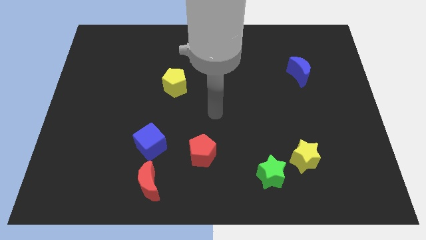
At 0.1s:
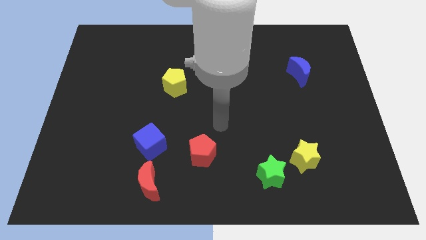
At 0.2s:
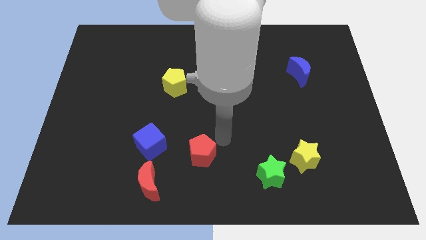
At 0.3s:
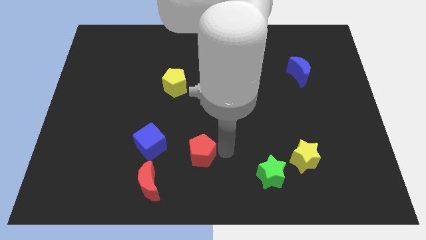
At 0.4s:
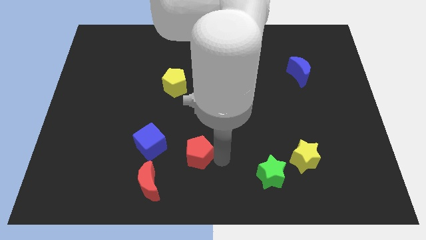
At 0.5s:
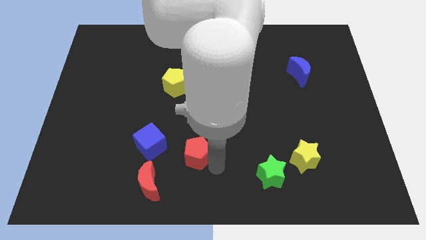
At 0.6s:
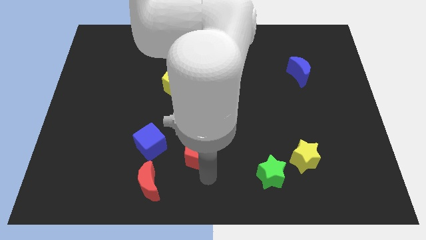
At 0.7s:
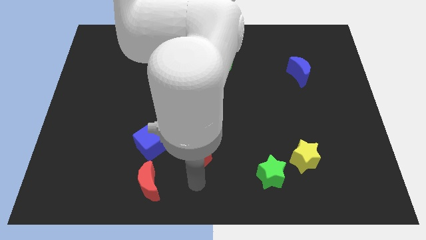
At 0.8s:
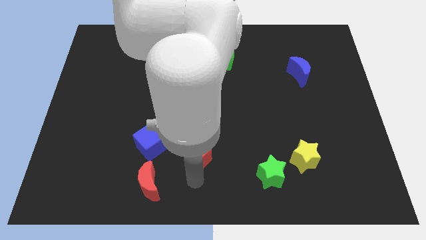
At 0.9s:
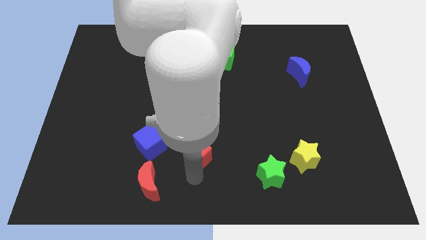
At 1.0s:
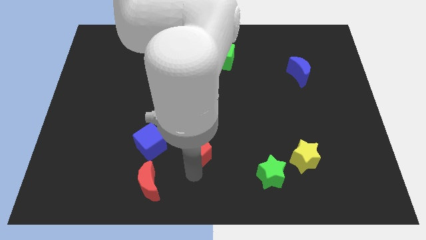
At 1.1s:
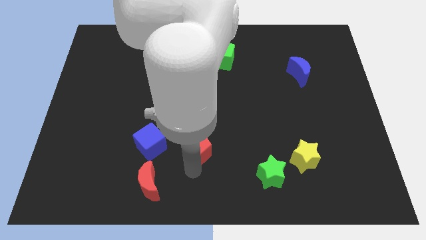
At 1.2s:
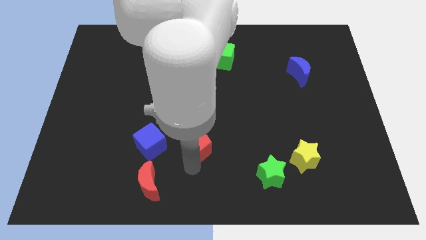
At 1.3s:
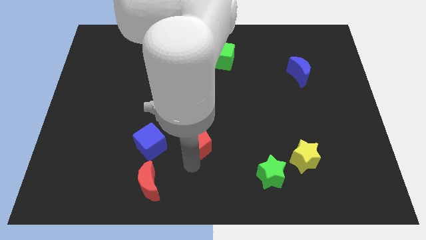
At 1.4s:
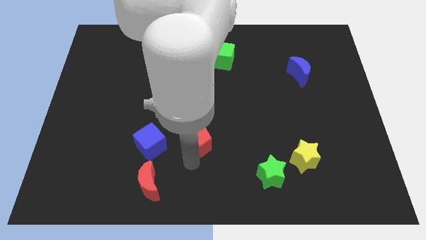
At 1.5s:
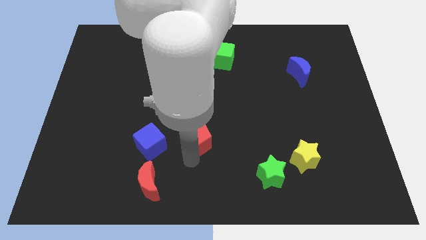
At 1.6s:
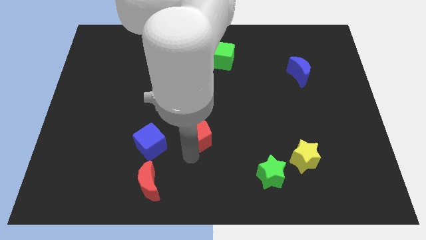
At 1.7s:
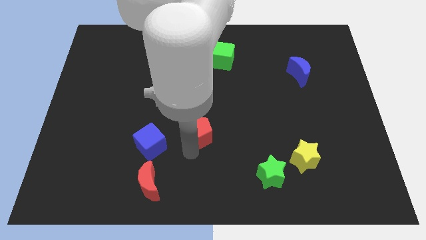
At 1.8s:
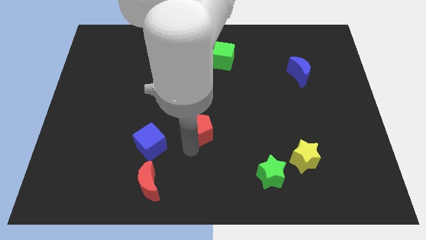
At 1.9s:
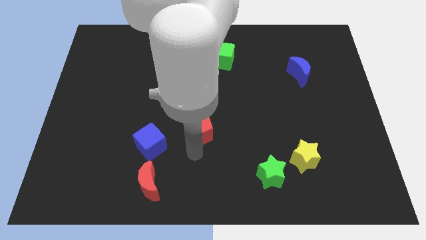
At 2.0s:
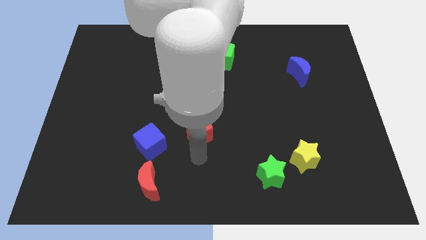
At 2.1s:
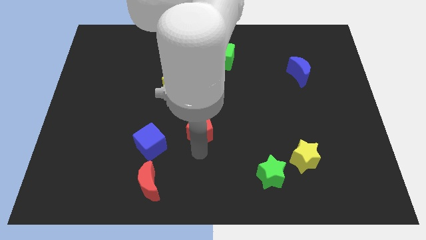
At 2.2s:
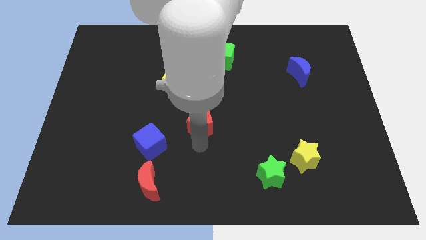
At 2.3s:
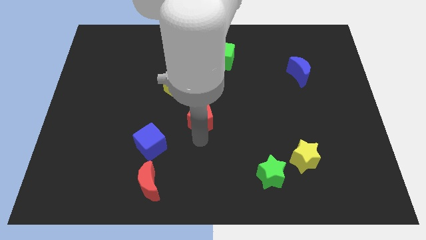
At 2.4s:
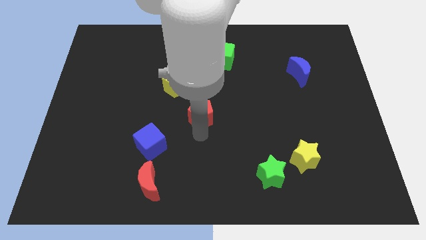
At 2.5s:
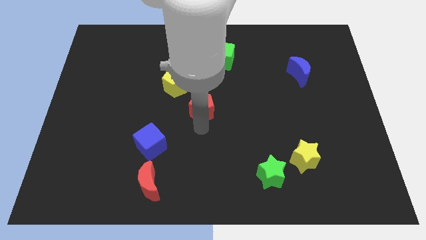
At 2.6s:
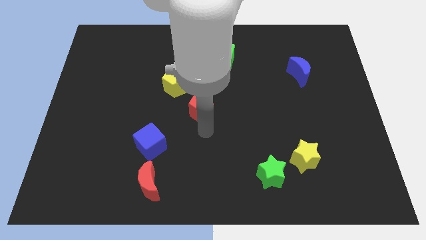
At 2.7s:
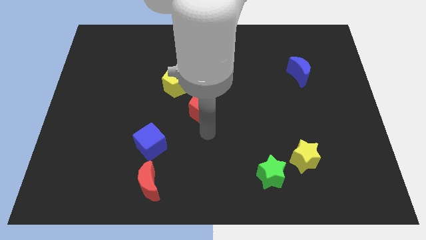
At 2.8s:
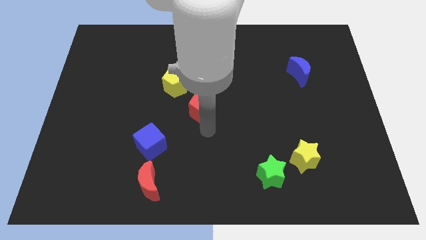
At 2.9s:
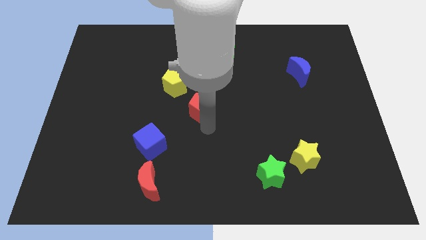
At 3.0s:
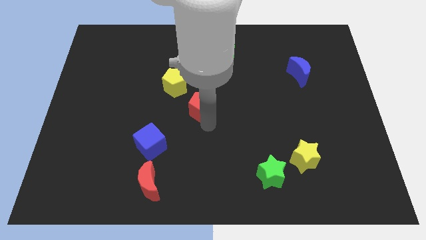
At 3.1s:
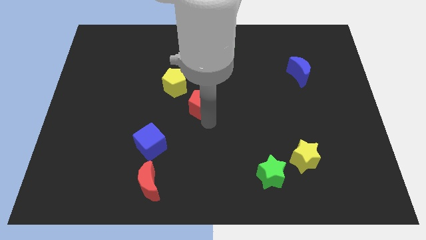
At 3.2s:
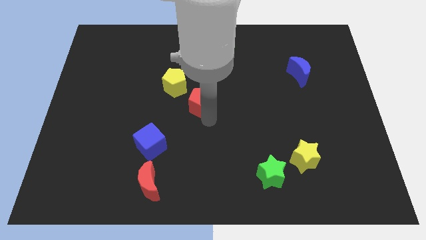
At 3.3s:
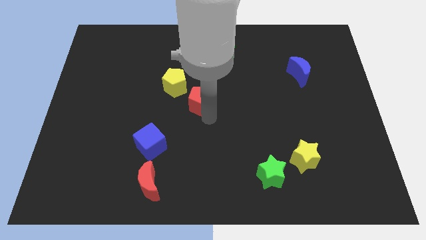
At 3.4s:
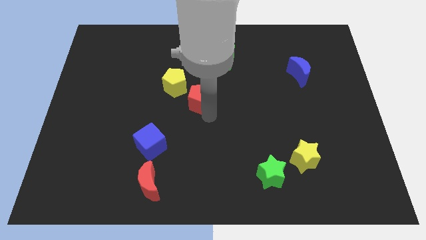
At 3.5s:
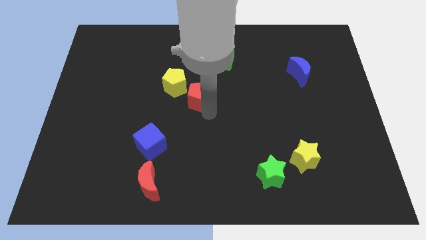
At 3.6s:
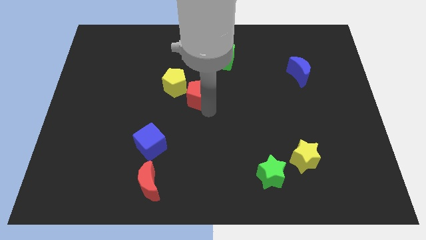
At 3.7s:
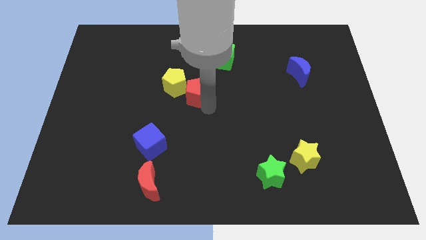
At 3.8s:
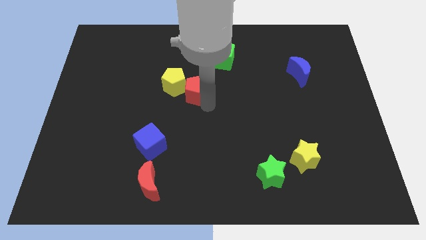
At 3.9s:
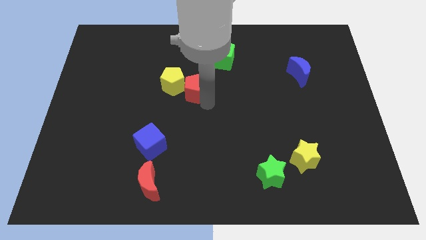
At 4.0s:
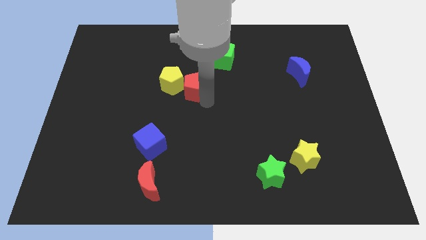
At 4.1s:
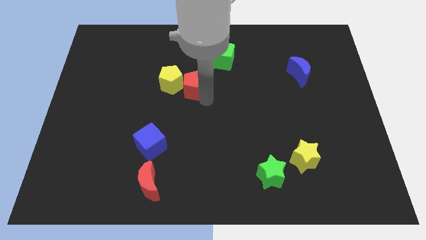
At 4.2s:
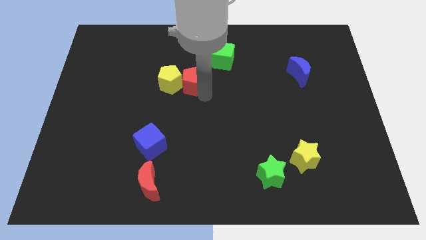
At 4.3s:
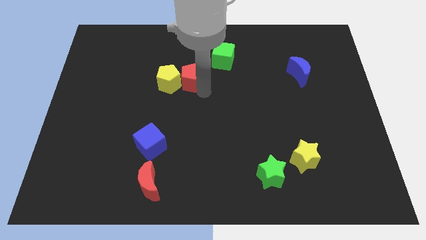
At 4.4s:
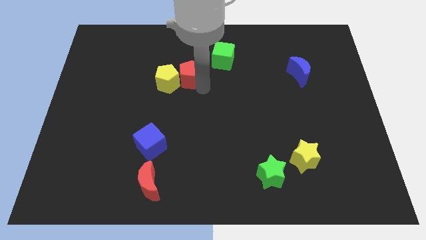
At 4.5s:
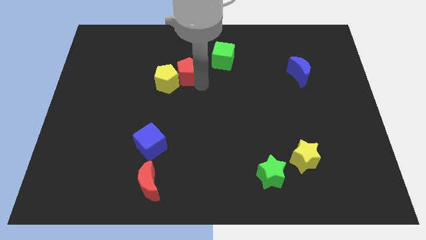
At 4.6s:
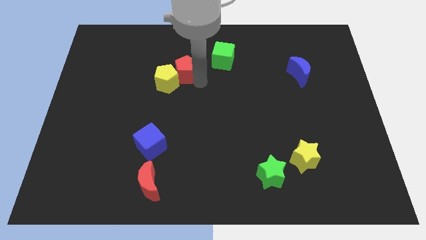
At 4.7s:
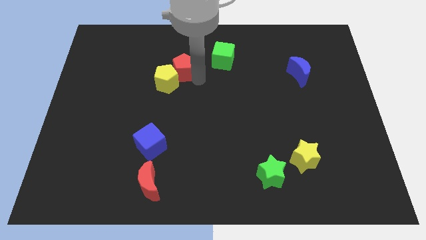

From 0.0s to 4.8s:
put the red pentagon to the top of the yellow pentagon

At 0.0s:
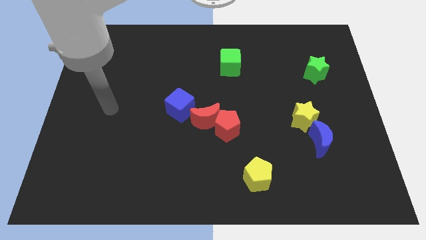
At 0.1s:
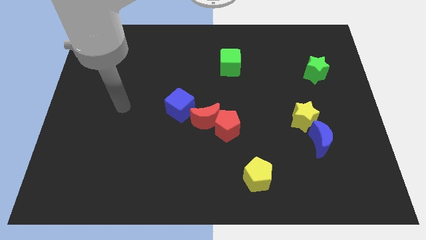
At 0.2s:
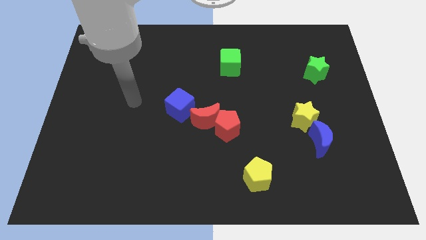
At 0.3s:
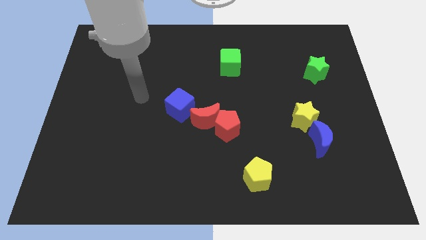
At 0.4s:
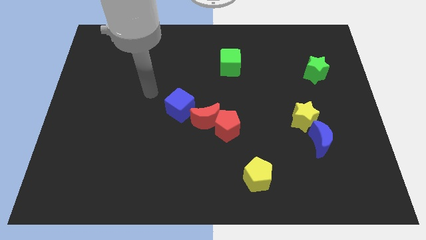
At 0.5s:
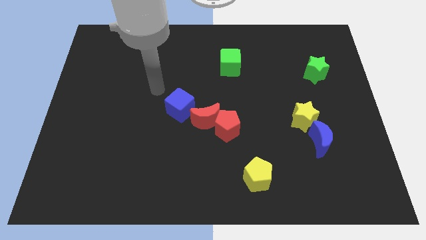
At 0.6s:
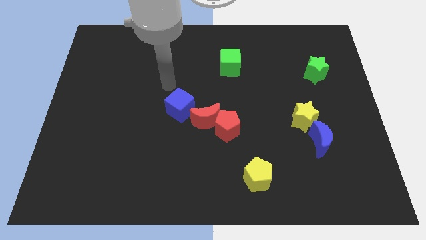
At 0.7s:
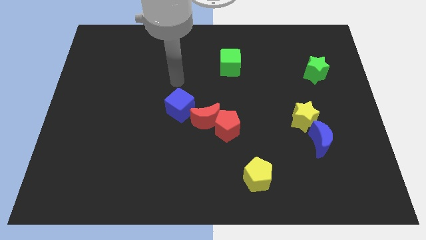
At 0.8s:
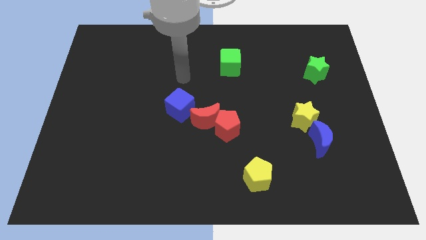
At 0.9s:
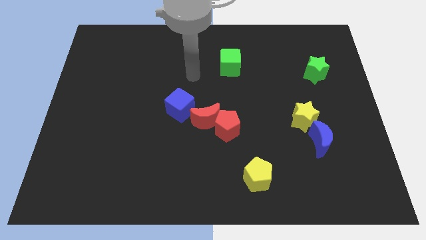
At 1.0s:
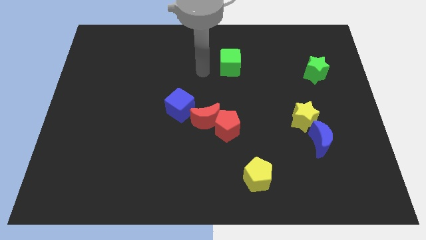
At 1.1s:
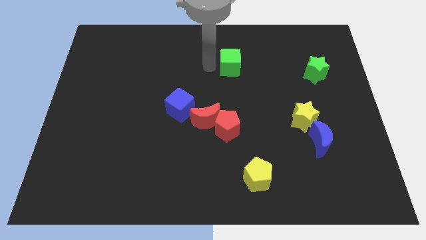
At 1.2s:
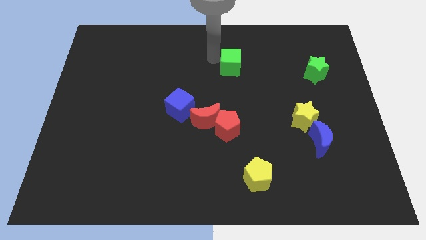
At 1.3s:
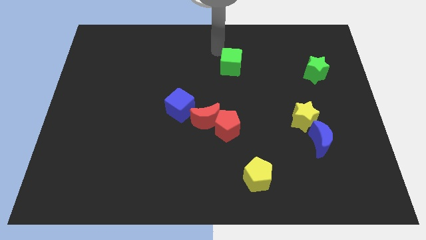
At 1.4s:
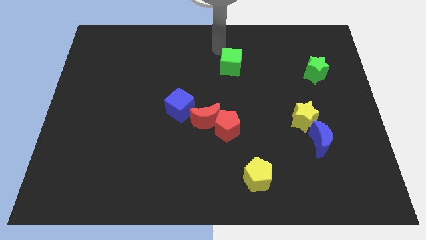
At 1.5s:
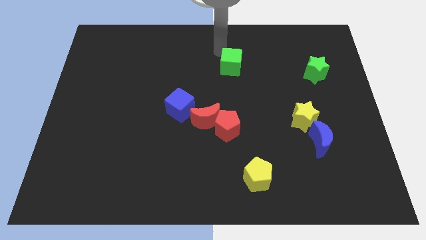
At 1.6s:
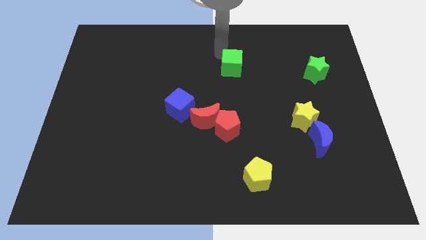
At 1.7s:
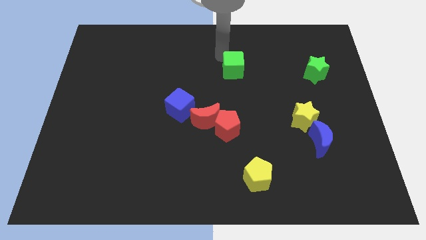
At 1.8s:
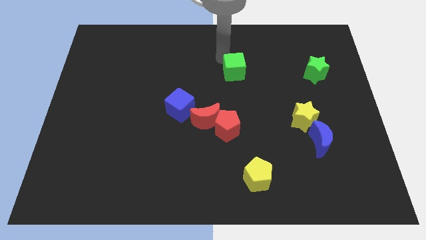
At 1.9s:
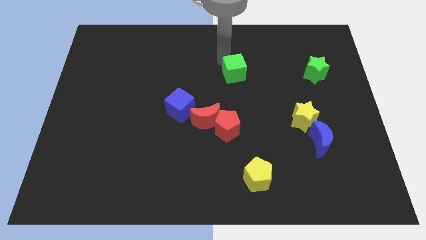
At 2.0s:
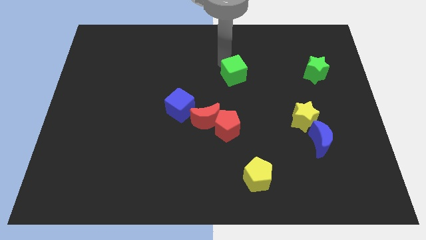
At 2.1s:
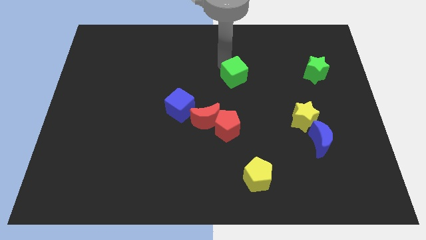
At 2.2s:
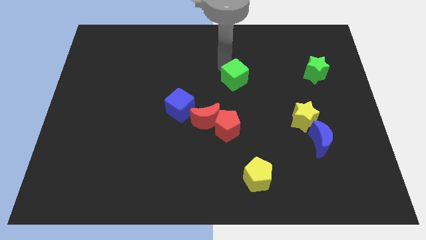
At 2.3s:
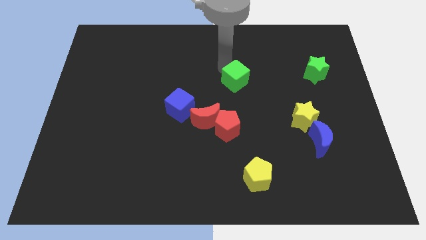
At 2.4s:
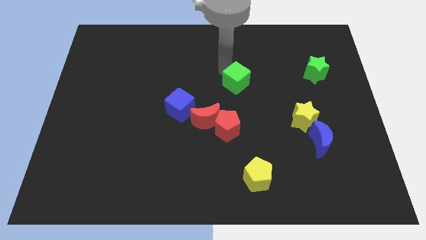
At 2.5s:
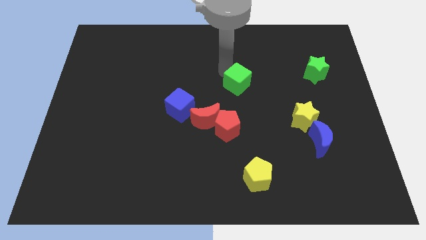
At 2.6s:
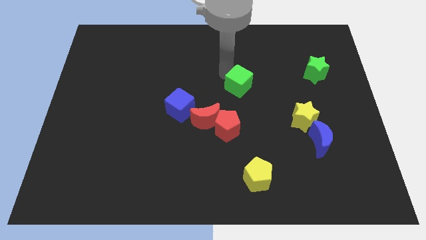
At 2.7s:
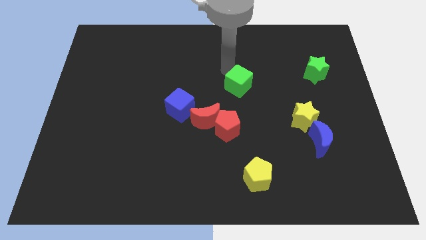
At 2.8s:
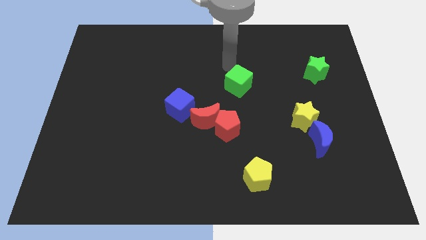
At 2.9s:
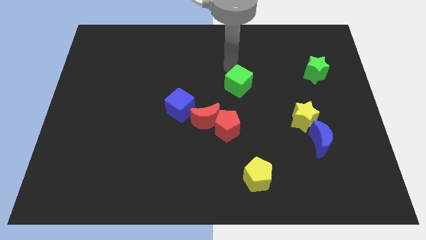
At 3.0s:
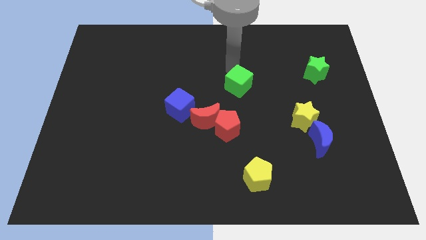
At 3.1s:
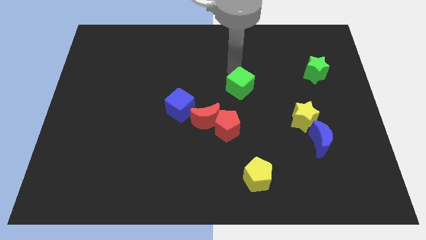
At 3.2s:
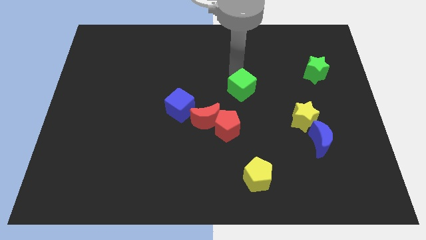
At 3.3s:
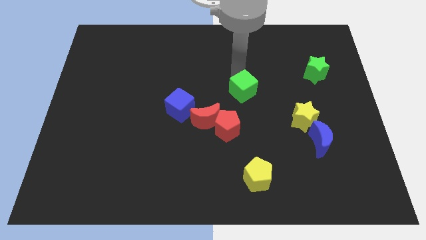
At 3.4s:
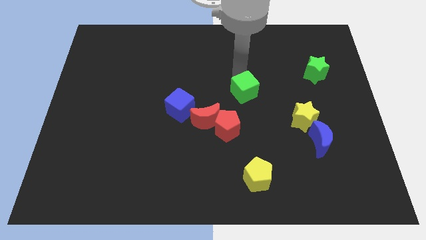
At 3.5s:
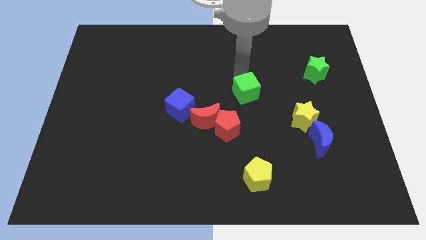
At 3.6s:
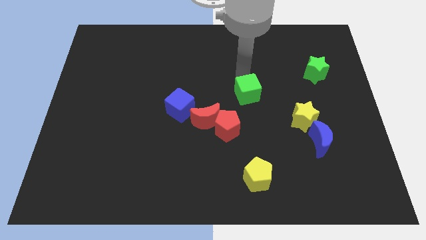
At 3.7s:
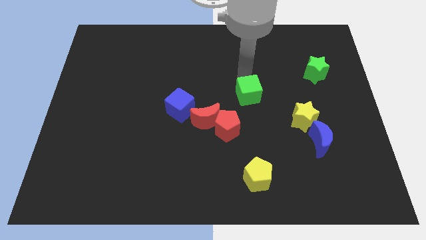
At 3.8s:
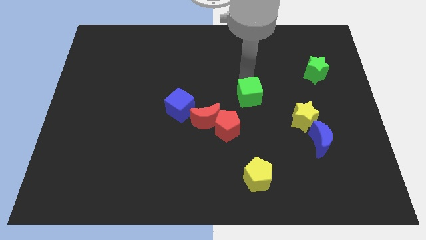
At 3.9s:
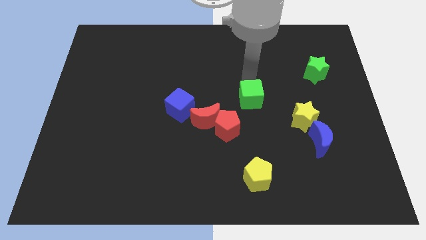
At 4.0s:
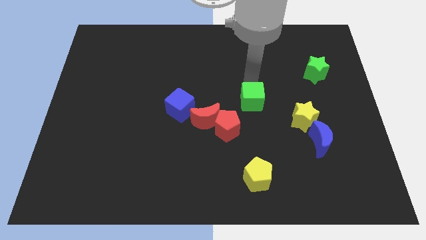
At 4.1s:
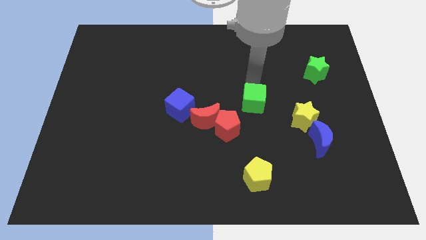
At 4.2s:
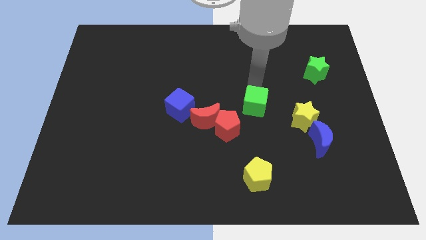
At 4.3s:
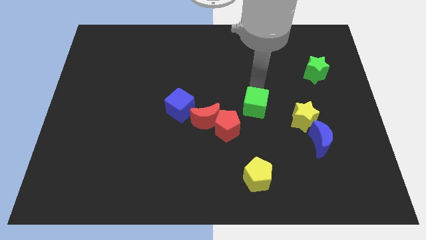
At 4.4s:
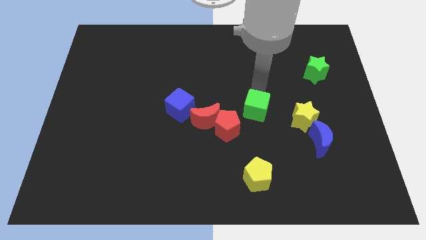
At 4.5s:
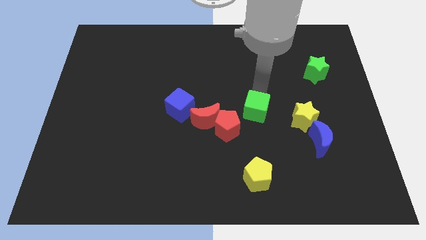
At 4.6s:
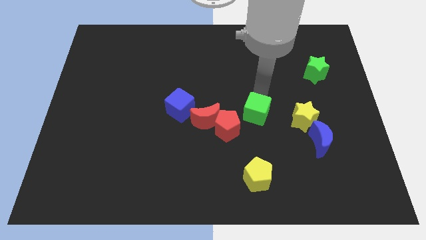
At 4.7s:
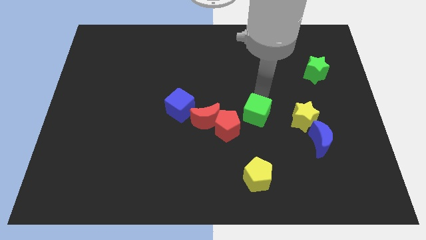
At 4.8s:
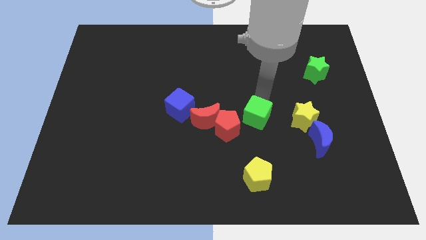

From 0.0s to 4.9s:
move the green cube to the top side of the yellow pentagon
